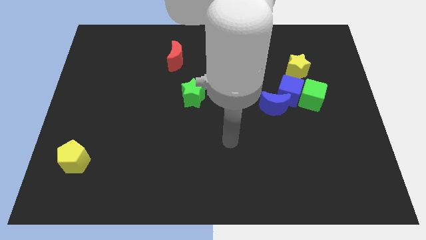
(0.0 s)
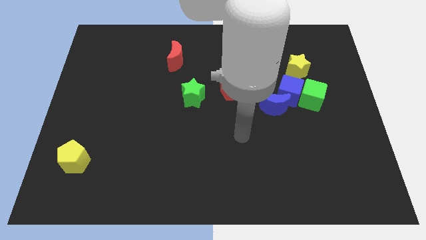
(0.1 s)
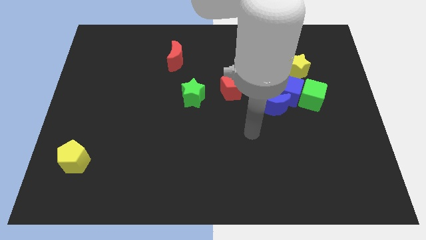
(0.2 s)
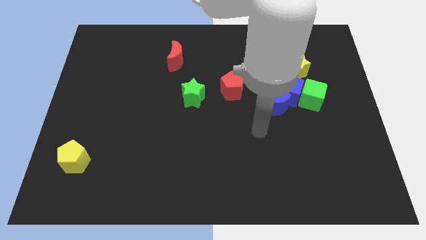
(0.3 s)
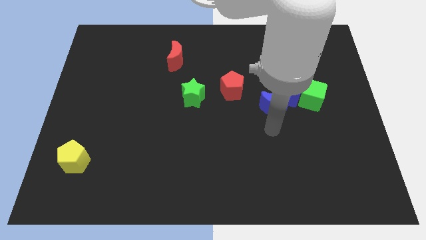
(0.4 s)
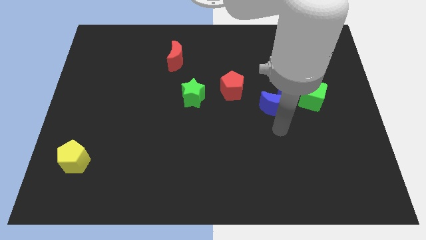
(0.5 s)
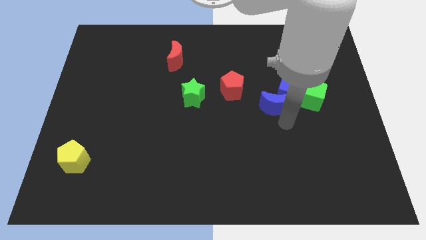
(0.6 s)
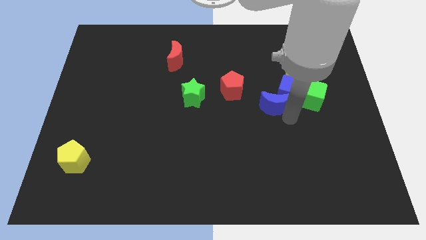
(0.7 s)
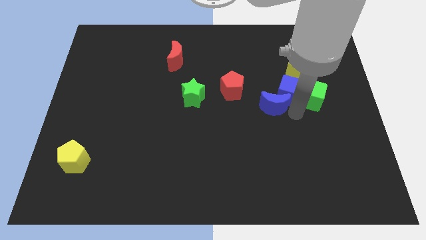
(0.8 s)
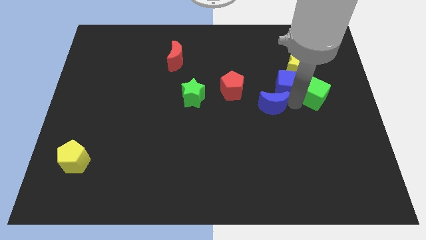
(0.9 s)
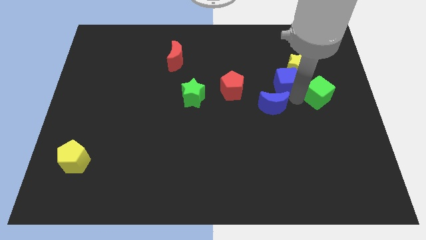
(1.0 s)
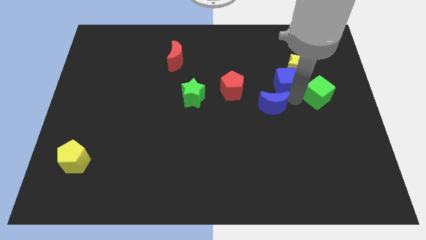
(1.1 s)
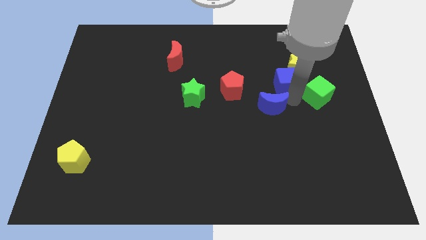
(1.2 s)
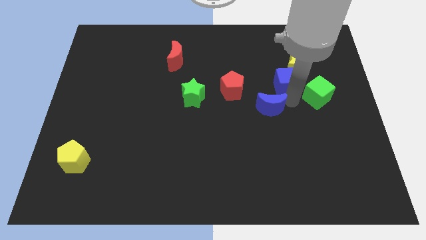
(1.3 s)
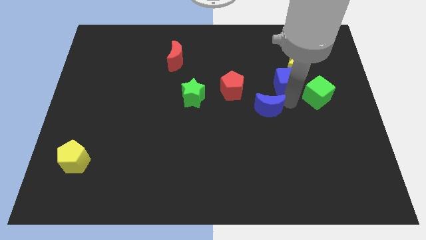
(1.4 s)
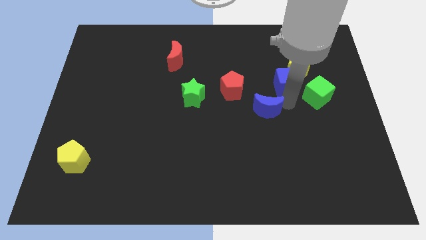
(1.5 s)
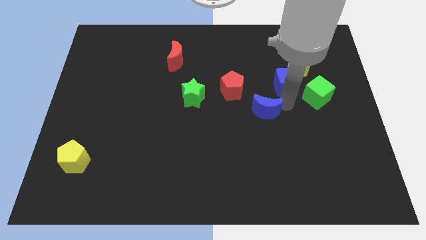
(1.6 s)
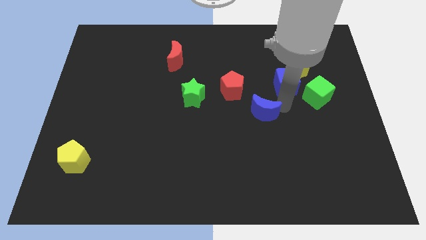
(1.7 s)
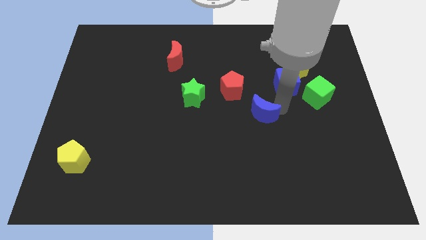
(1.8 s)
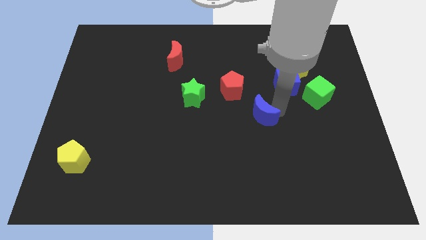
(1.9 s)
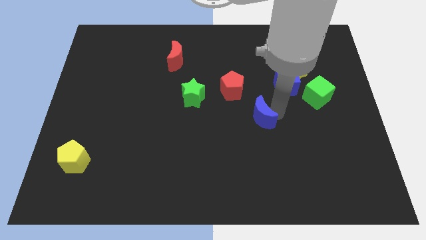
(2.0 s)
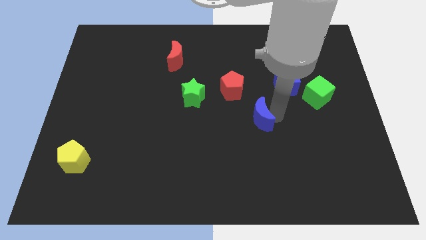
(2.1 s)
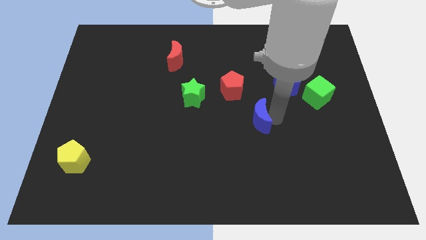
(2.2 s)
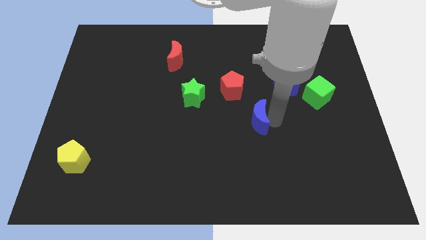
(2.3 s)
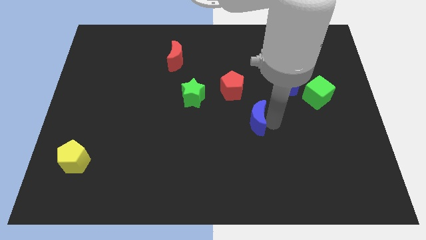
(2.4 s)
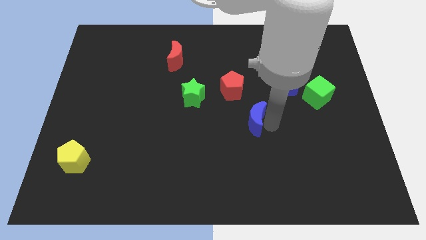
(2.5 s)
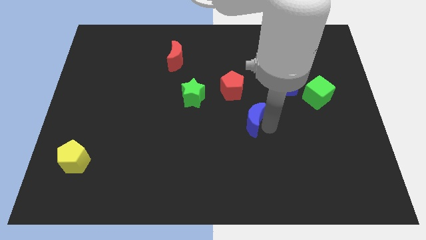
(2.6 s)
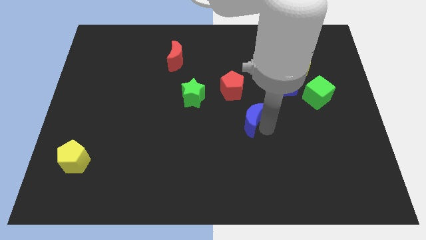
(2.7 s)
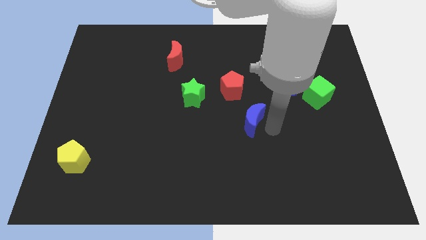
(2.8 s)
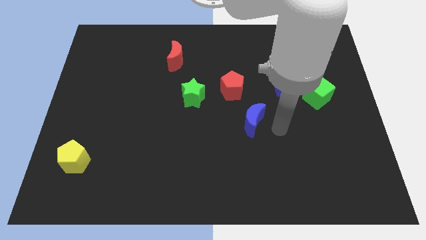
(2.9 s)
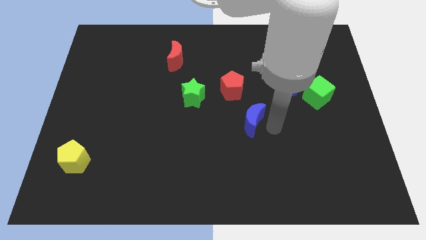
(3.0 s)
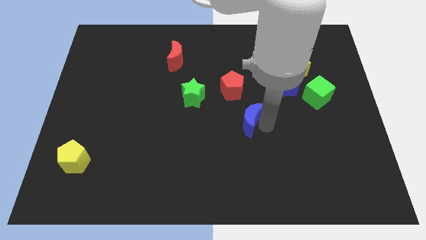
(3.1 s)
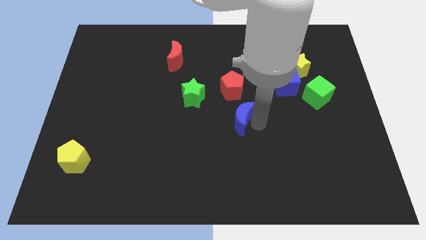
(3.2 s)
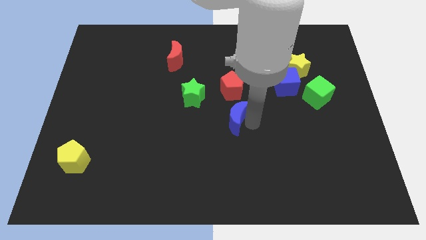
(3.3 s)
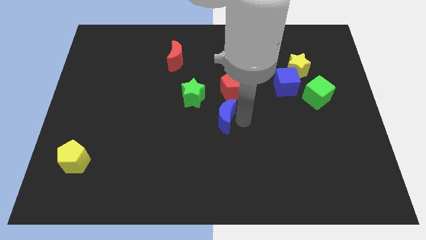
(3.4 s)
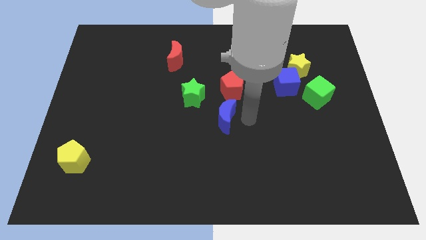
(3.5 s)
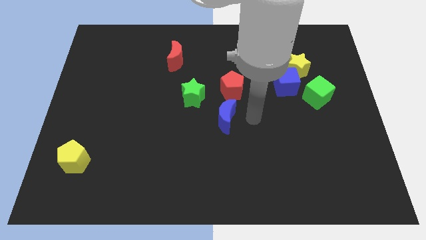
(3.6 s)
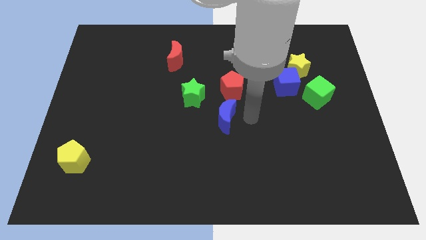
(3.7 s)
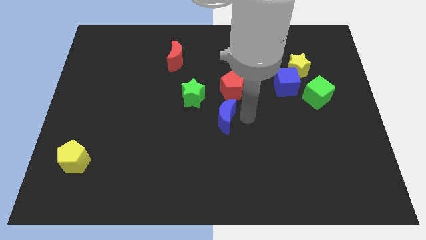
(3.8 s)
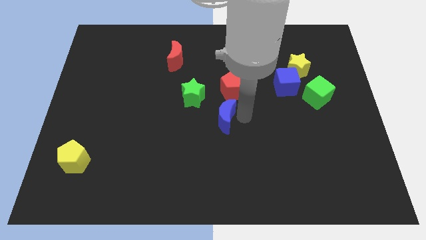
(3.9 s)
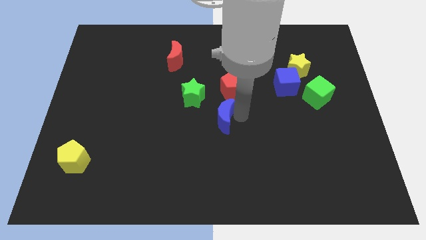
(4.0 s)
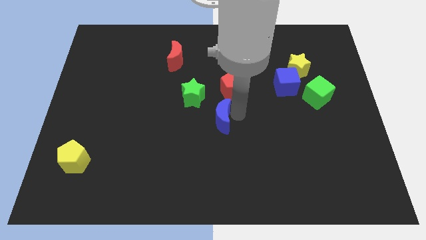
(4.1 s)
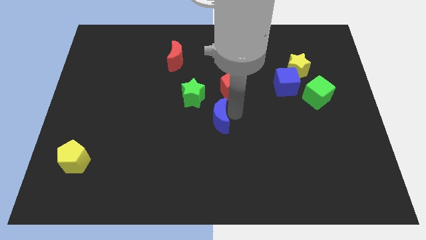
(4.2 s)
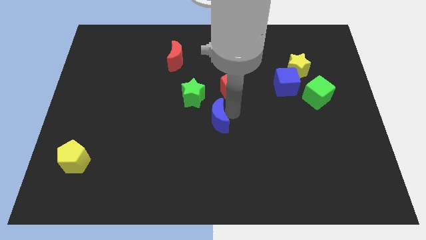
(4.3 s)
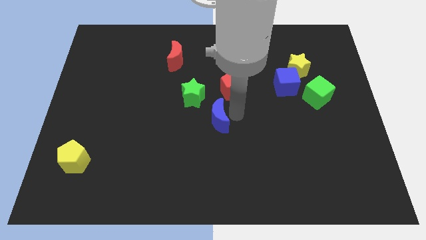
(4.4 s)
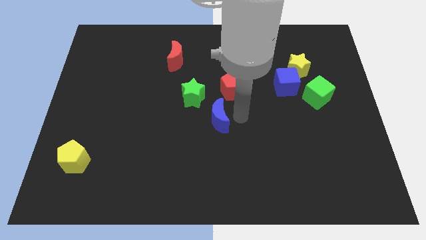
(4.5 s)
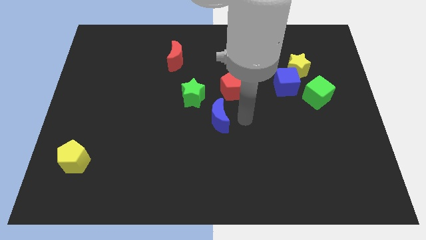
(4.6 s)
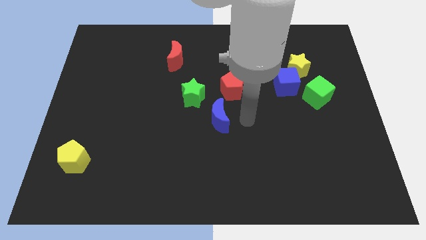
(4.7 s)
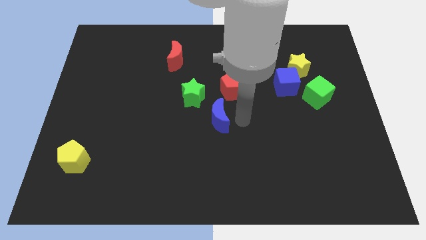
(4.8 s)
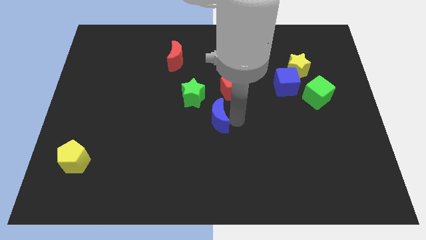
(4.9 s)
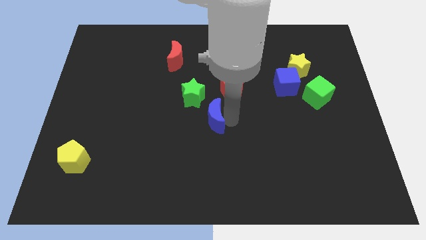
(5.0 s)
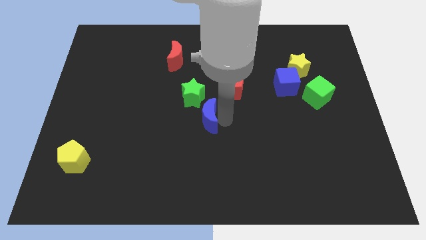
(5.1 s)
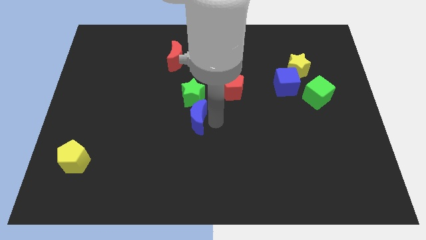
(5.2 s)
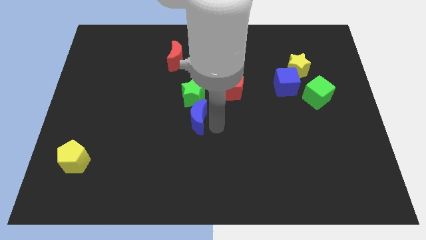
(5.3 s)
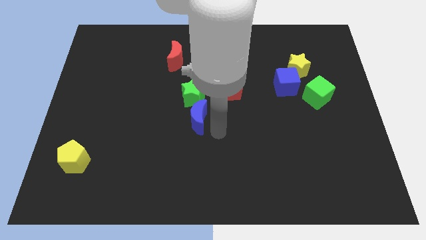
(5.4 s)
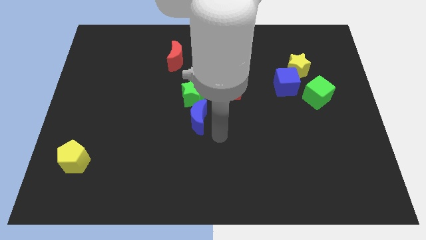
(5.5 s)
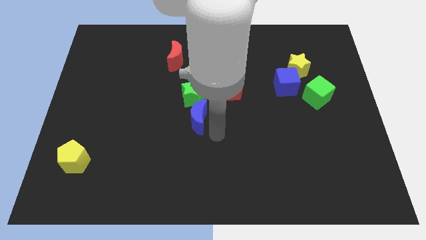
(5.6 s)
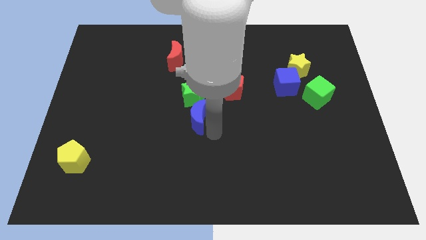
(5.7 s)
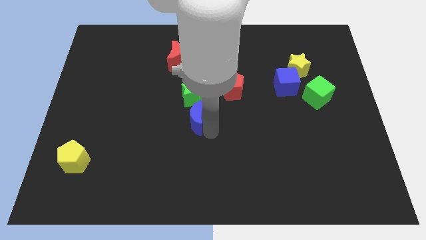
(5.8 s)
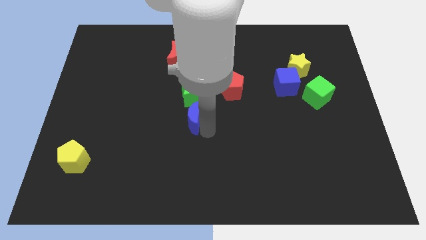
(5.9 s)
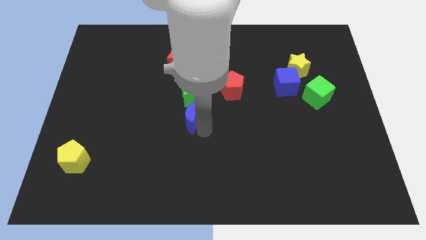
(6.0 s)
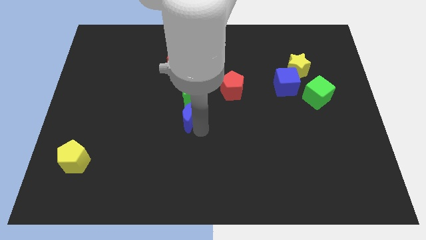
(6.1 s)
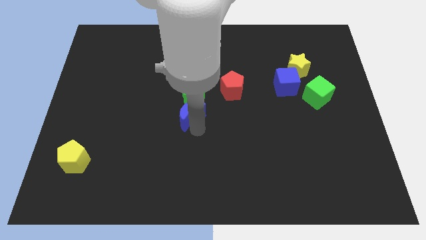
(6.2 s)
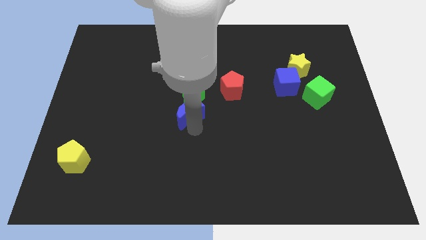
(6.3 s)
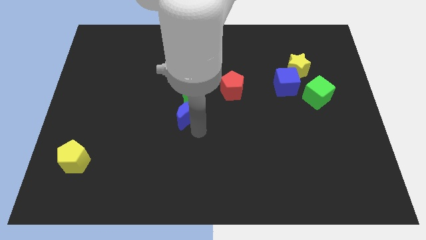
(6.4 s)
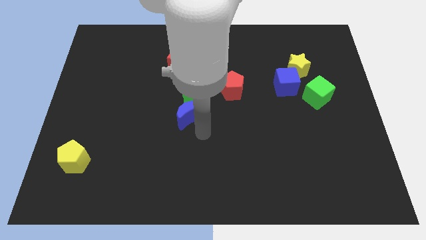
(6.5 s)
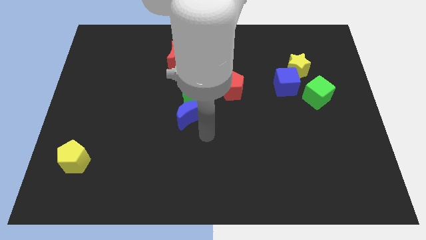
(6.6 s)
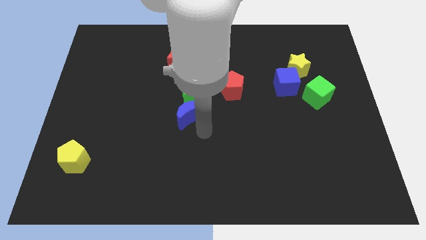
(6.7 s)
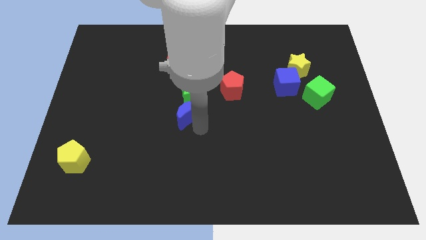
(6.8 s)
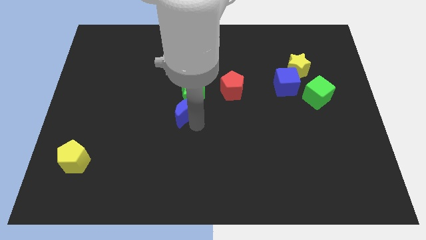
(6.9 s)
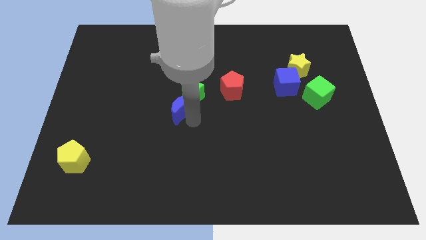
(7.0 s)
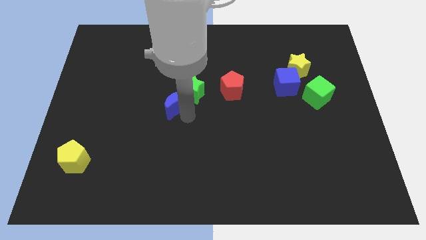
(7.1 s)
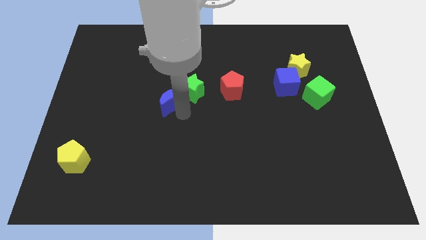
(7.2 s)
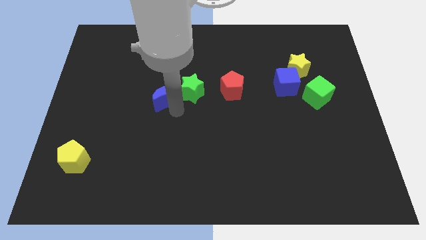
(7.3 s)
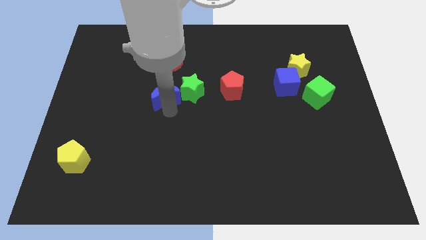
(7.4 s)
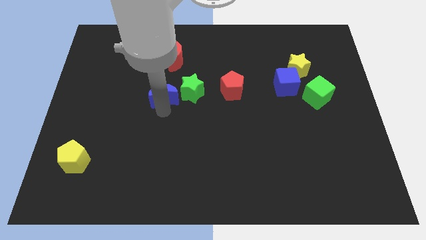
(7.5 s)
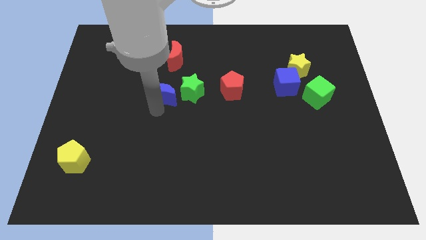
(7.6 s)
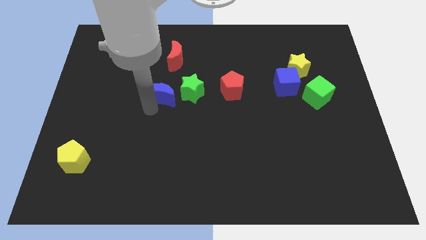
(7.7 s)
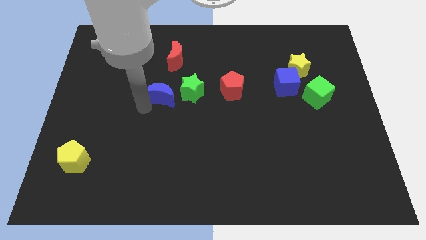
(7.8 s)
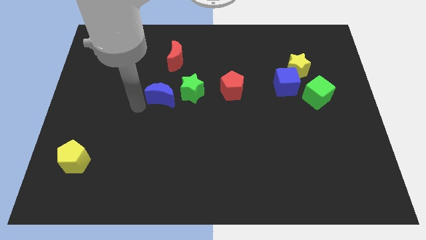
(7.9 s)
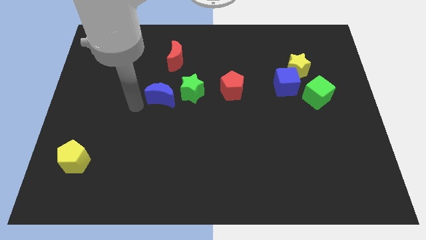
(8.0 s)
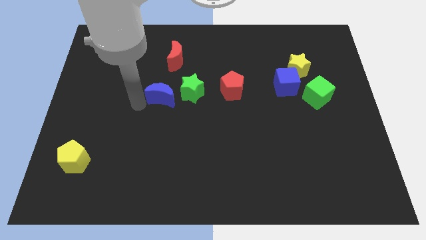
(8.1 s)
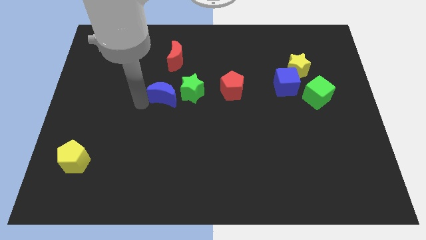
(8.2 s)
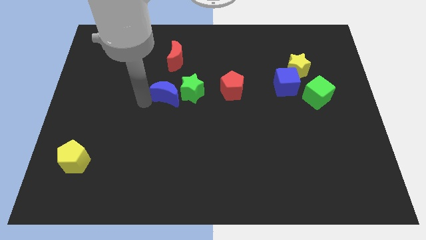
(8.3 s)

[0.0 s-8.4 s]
slide the blue moon just left of the red pentagon
